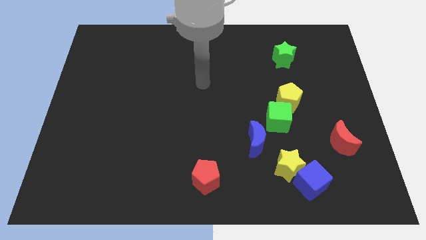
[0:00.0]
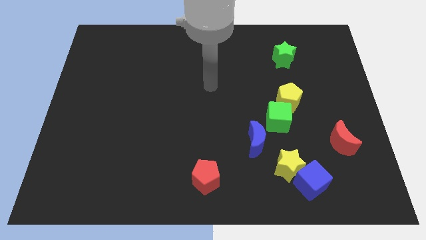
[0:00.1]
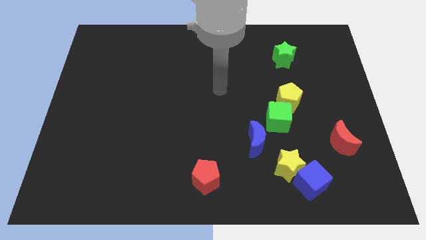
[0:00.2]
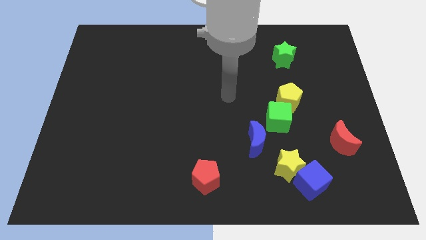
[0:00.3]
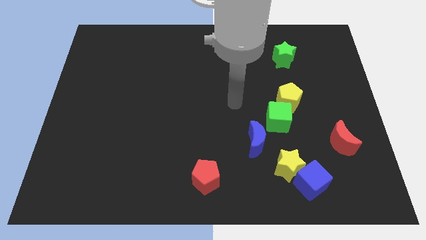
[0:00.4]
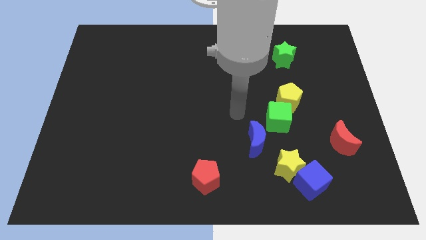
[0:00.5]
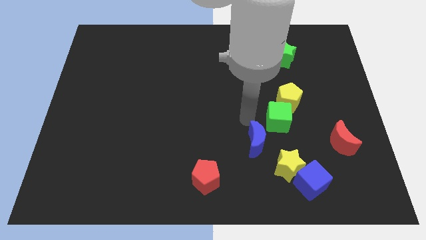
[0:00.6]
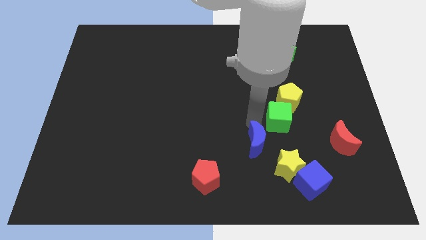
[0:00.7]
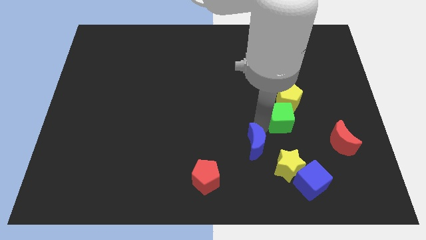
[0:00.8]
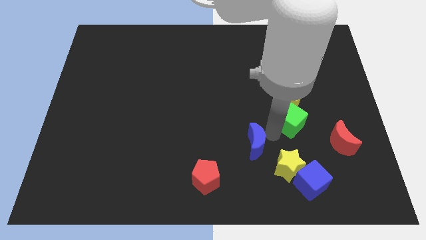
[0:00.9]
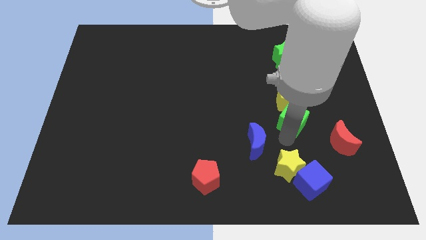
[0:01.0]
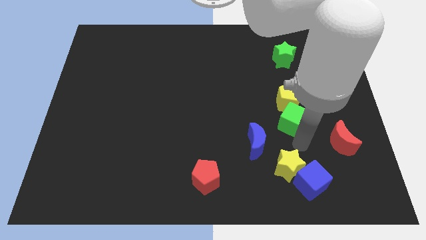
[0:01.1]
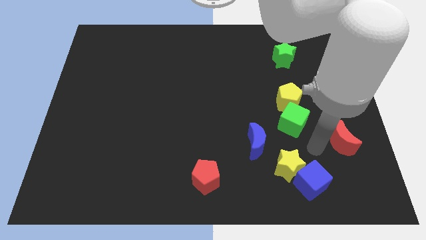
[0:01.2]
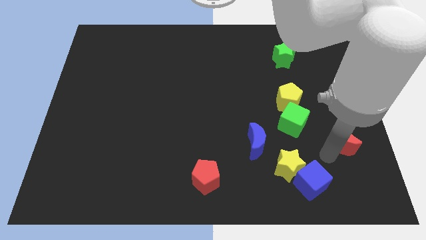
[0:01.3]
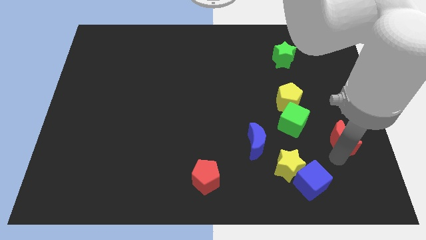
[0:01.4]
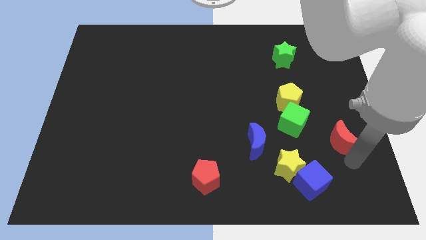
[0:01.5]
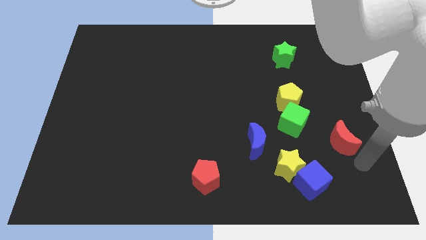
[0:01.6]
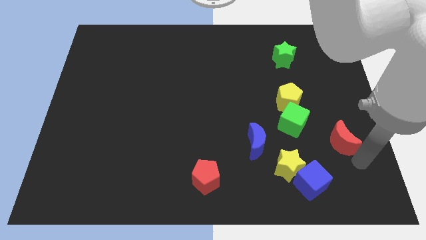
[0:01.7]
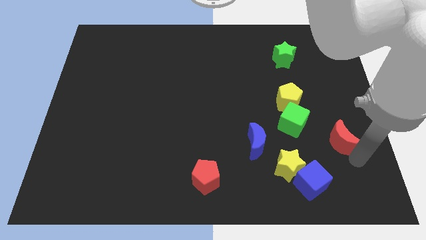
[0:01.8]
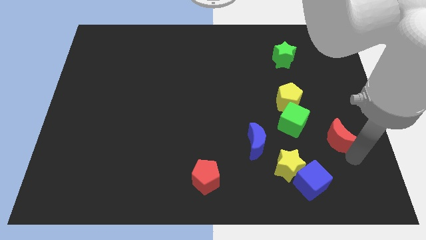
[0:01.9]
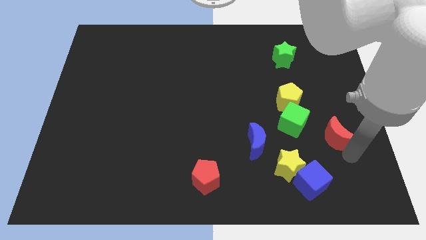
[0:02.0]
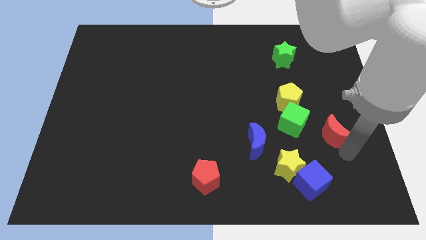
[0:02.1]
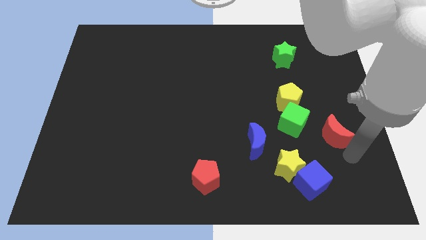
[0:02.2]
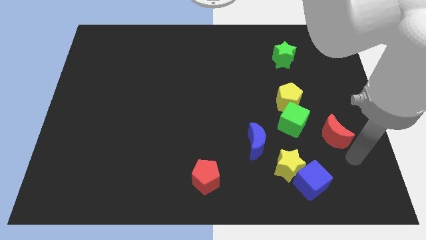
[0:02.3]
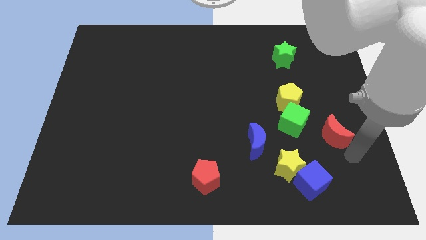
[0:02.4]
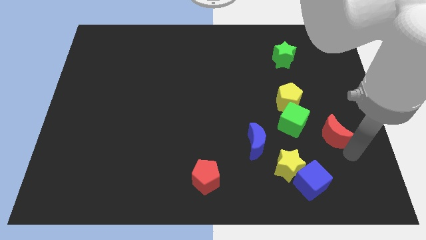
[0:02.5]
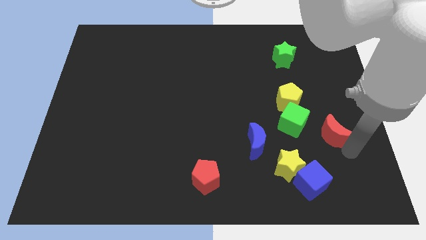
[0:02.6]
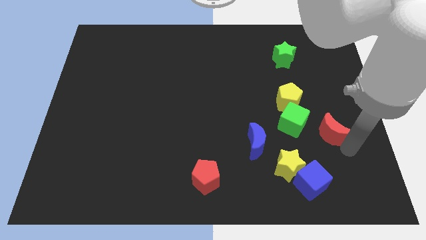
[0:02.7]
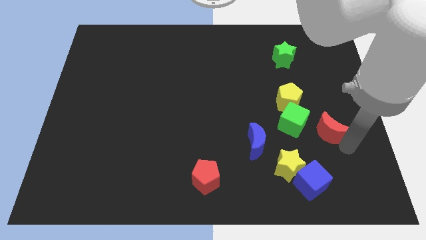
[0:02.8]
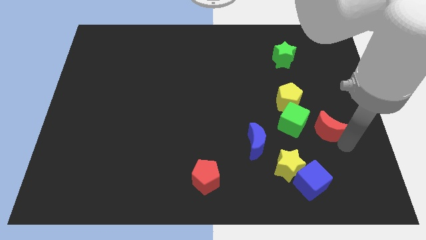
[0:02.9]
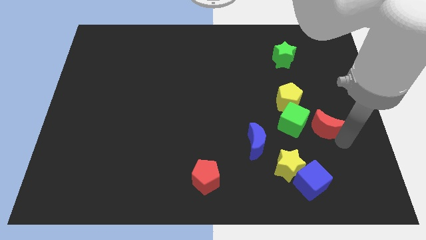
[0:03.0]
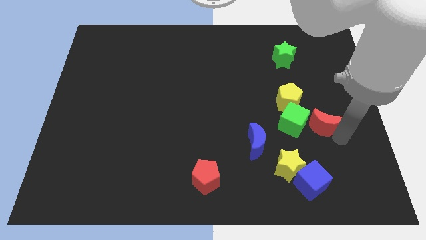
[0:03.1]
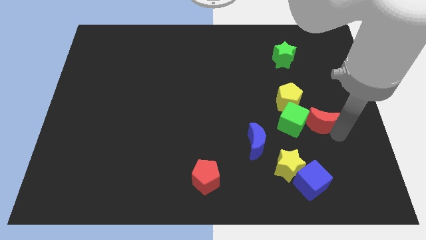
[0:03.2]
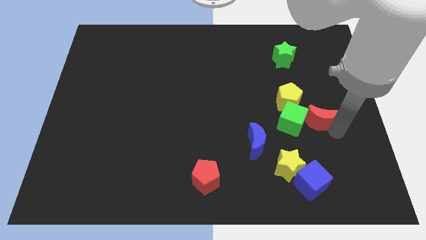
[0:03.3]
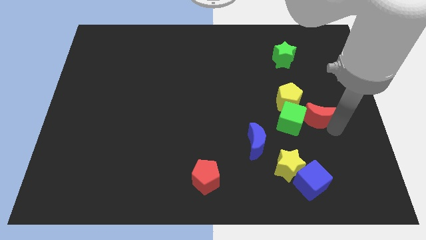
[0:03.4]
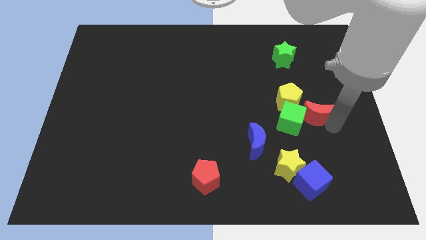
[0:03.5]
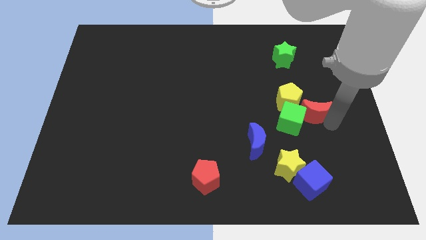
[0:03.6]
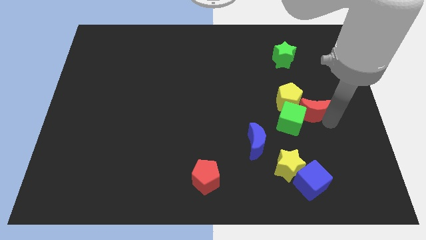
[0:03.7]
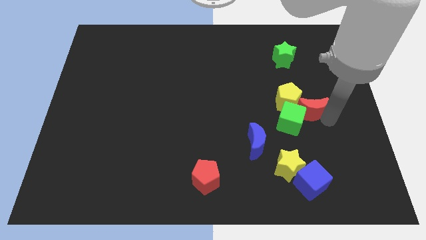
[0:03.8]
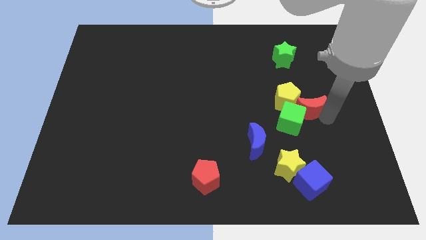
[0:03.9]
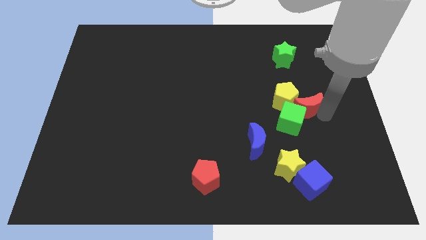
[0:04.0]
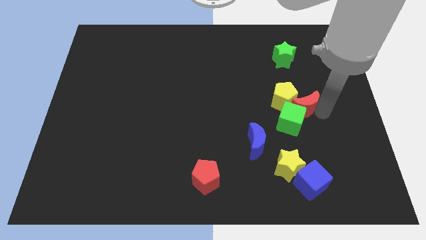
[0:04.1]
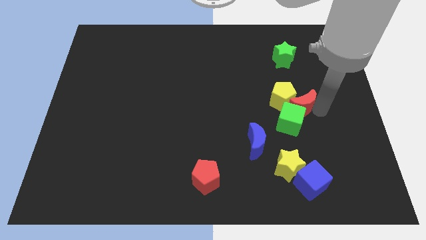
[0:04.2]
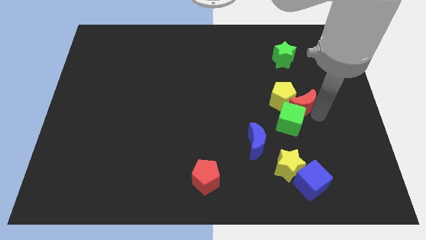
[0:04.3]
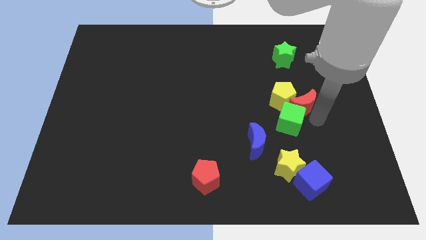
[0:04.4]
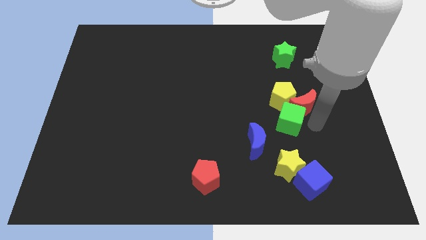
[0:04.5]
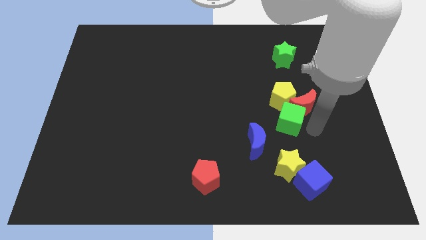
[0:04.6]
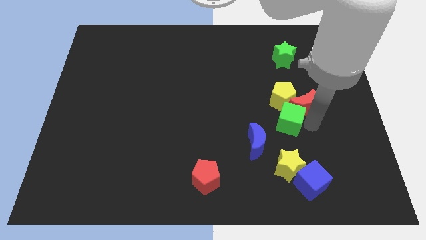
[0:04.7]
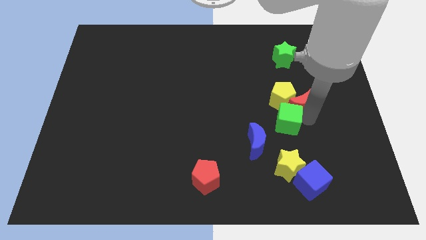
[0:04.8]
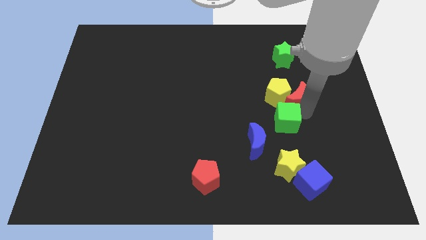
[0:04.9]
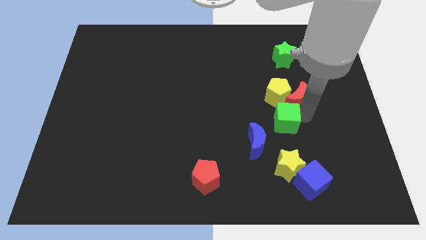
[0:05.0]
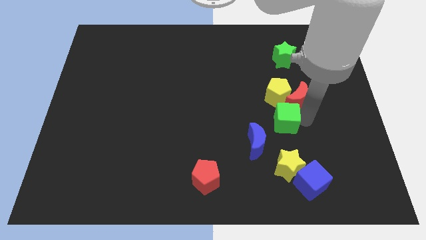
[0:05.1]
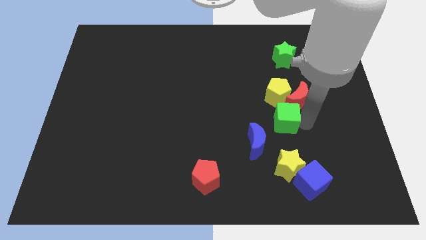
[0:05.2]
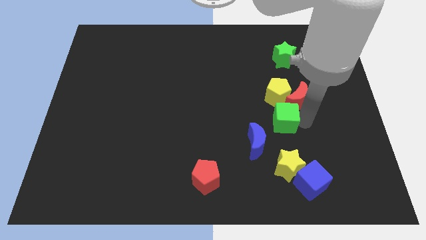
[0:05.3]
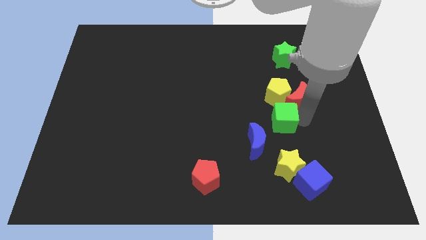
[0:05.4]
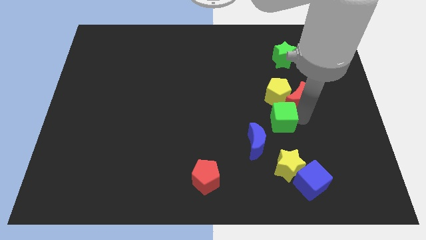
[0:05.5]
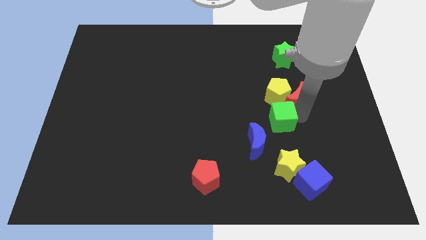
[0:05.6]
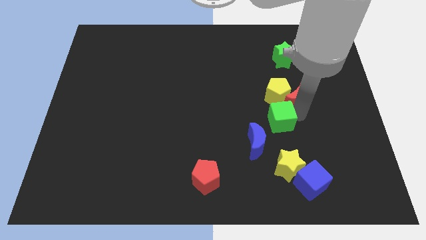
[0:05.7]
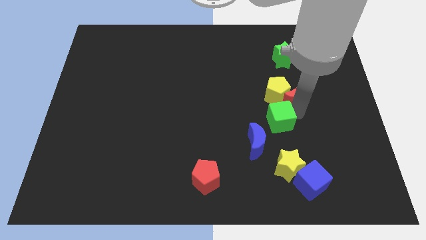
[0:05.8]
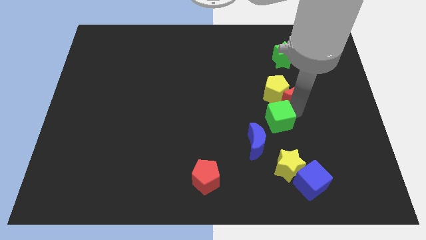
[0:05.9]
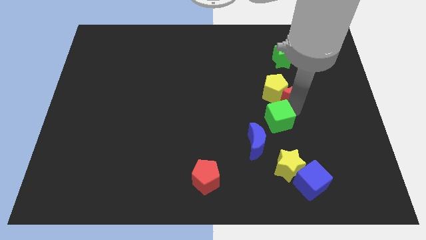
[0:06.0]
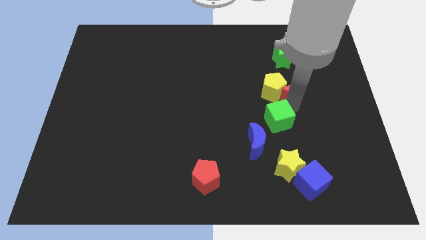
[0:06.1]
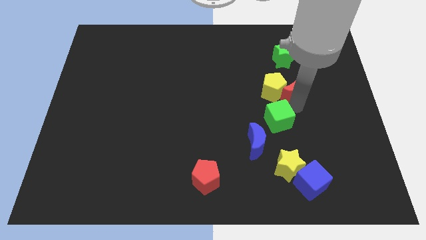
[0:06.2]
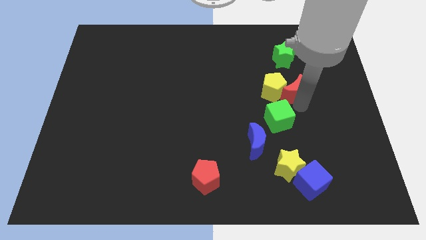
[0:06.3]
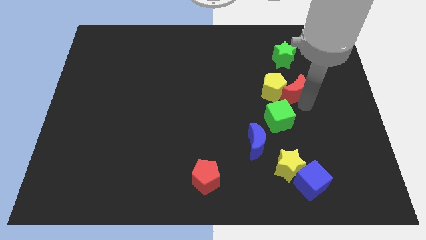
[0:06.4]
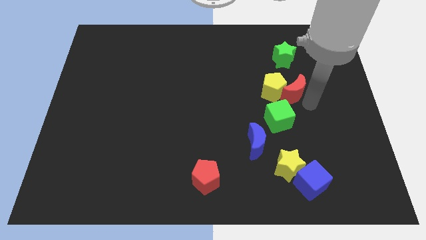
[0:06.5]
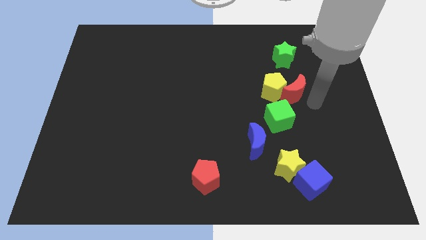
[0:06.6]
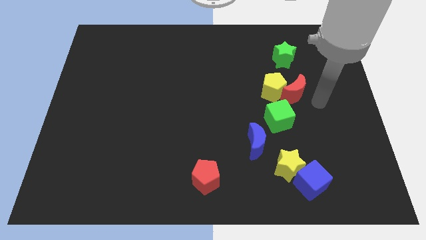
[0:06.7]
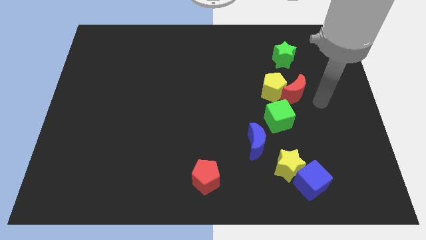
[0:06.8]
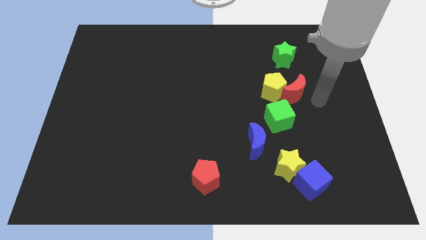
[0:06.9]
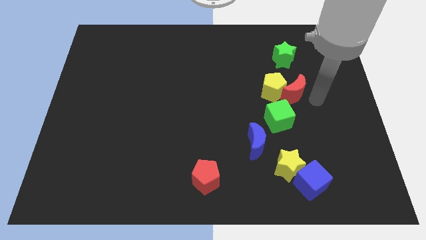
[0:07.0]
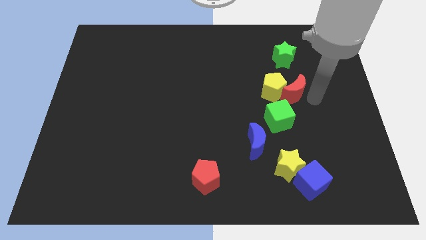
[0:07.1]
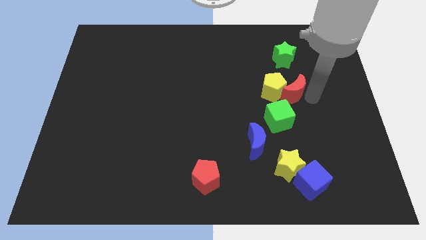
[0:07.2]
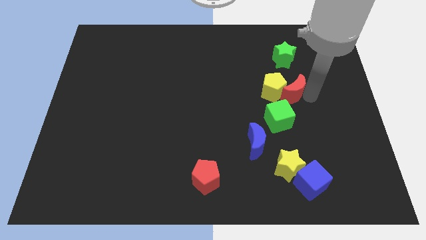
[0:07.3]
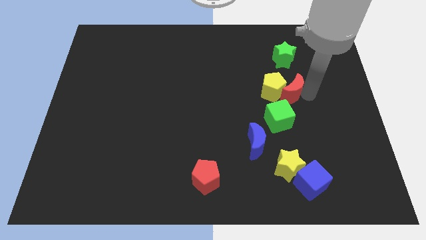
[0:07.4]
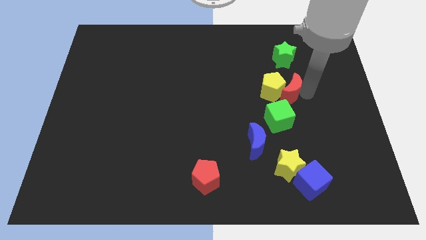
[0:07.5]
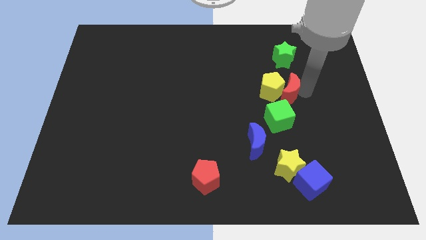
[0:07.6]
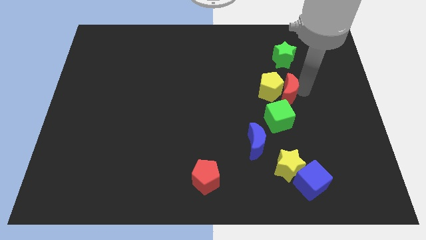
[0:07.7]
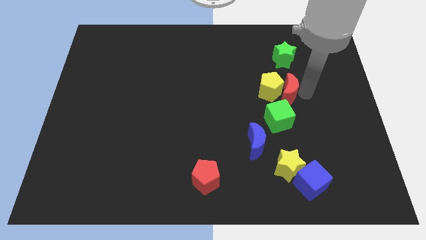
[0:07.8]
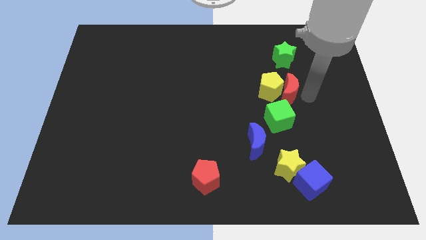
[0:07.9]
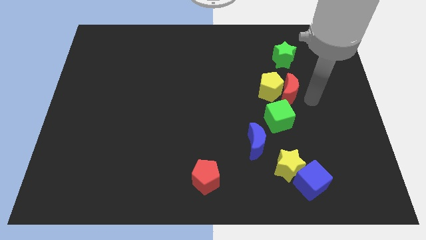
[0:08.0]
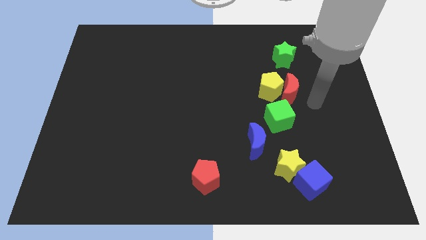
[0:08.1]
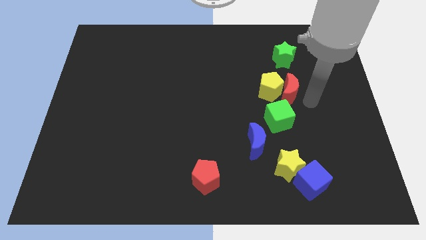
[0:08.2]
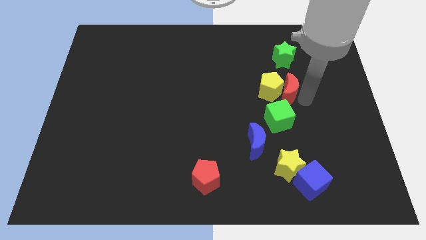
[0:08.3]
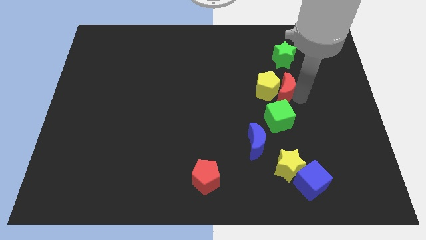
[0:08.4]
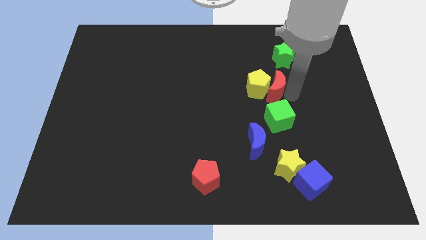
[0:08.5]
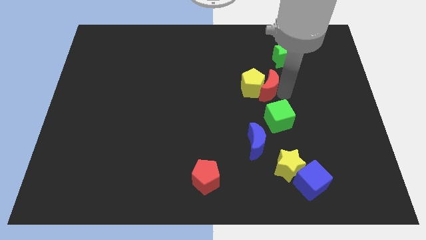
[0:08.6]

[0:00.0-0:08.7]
slide the red moon diagonally upwards and left
